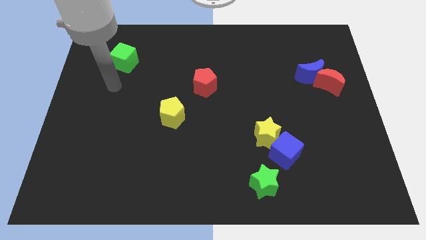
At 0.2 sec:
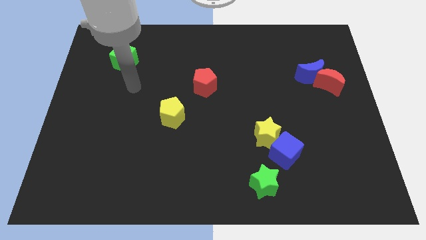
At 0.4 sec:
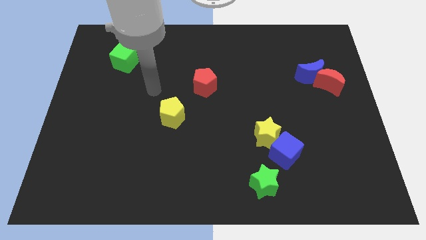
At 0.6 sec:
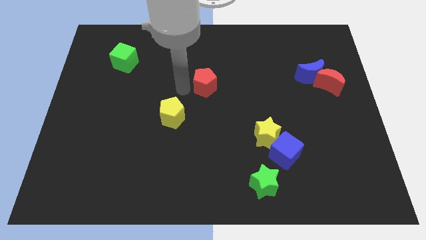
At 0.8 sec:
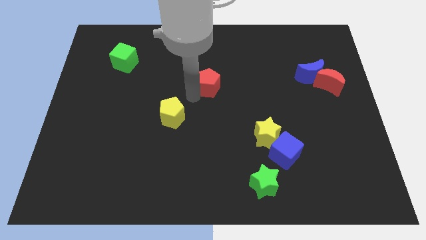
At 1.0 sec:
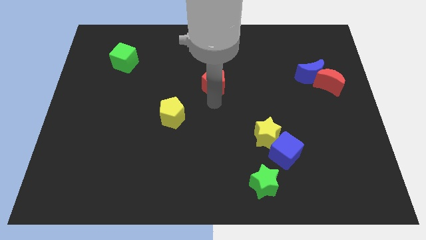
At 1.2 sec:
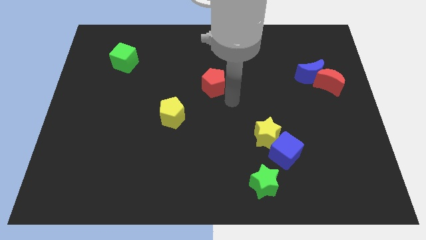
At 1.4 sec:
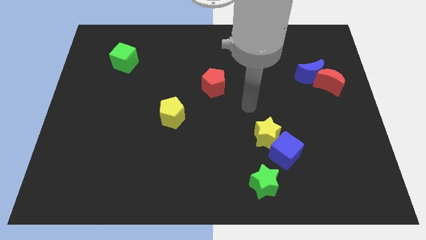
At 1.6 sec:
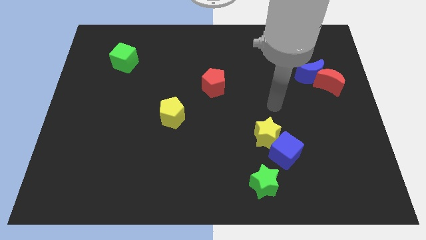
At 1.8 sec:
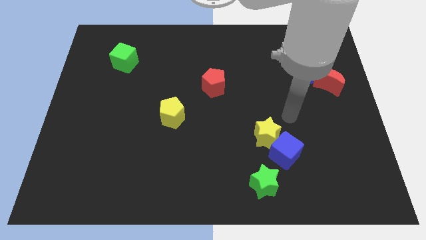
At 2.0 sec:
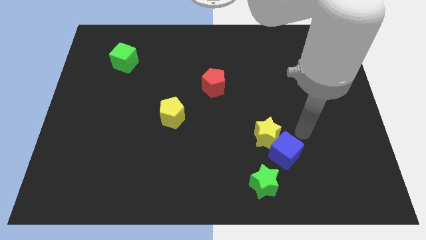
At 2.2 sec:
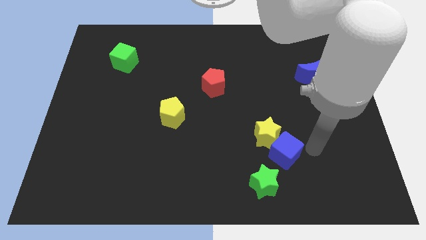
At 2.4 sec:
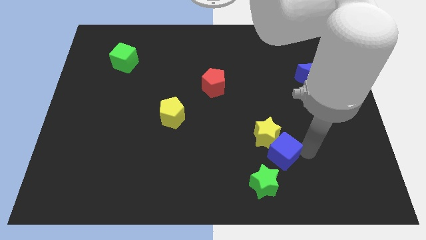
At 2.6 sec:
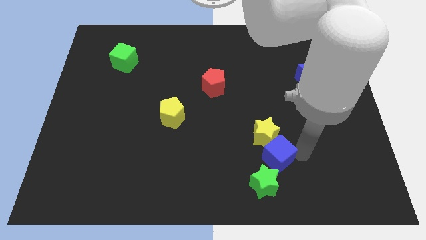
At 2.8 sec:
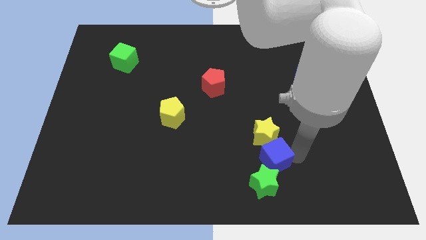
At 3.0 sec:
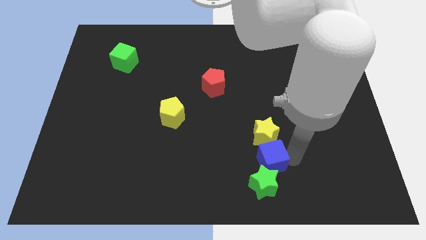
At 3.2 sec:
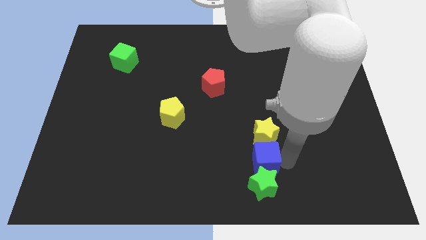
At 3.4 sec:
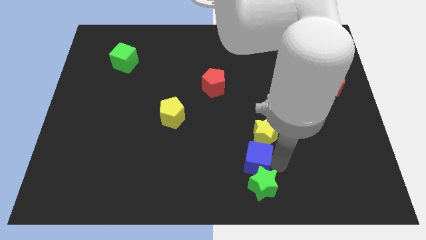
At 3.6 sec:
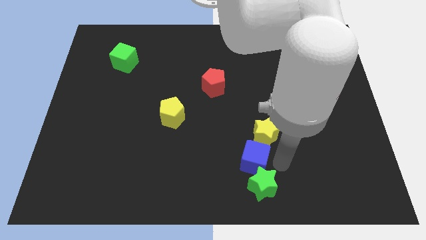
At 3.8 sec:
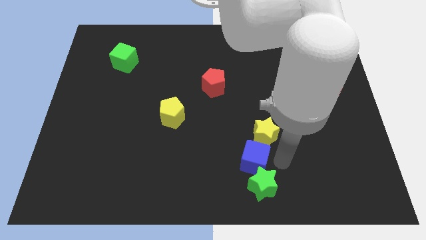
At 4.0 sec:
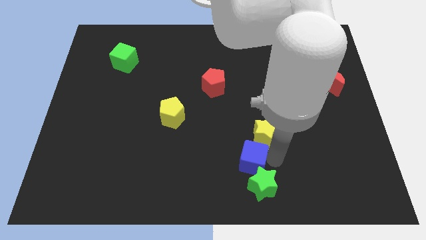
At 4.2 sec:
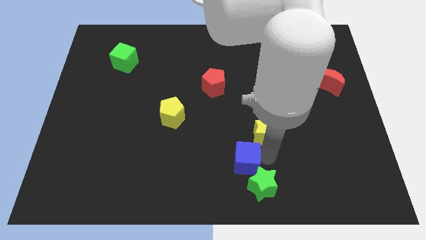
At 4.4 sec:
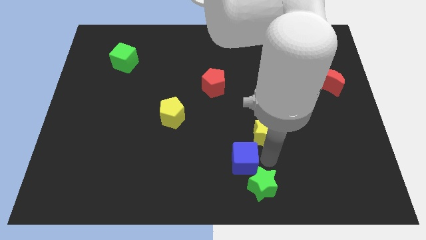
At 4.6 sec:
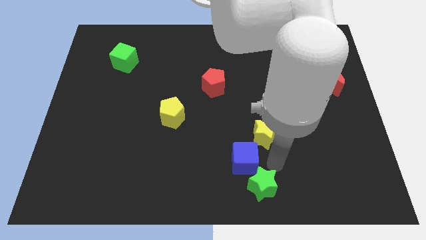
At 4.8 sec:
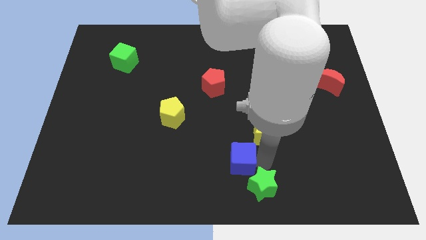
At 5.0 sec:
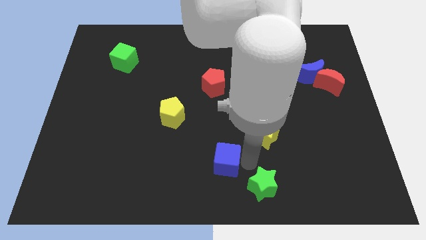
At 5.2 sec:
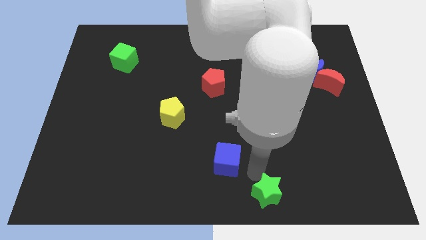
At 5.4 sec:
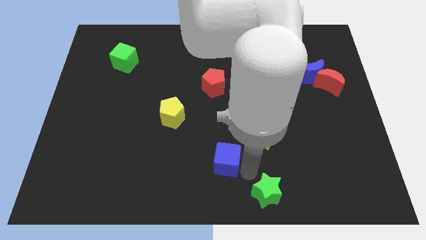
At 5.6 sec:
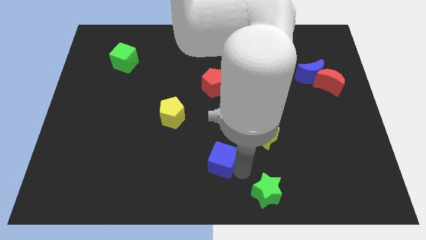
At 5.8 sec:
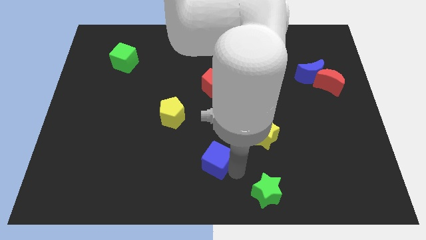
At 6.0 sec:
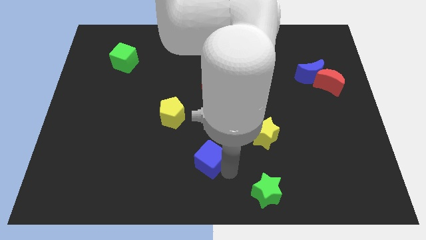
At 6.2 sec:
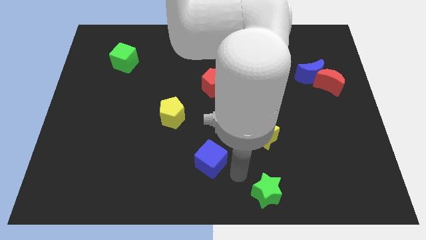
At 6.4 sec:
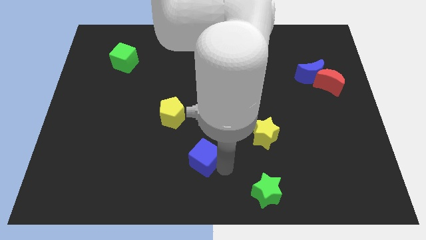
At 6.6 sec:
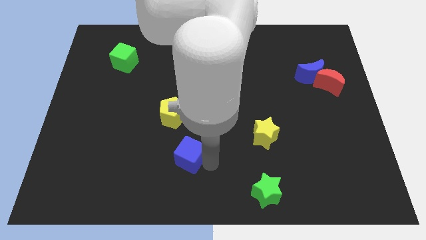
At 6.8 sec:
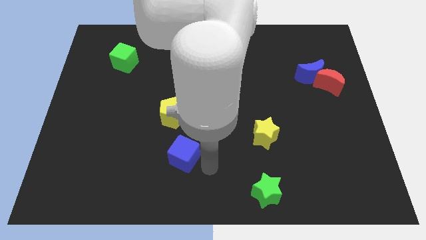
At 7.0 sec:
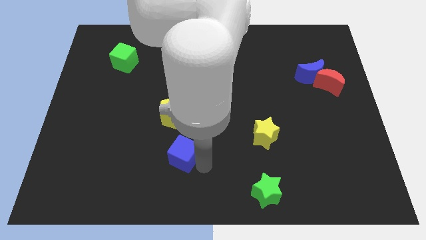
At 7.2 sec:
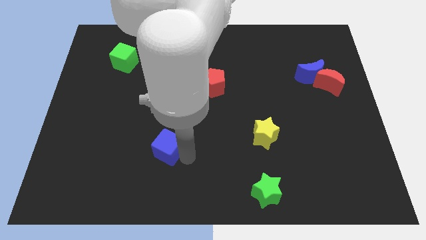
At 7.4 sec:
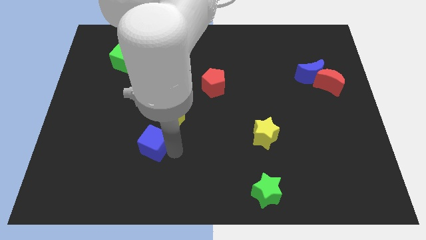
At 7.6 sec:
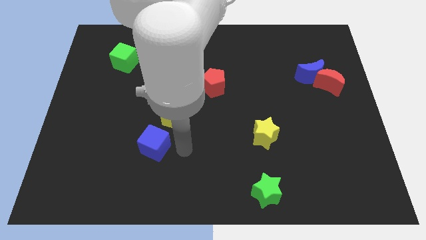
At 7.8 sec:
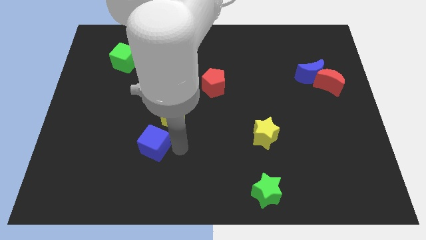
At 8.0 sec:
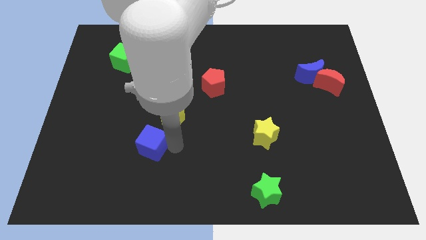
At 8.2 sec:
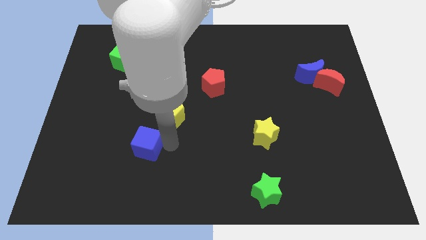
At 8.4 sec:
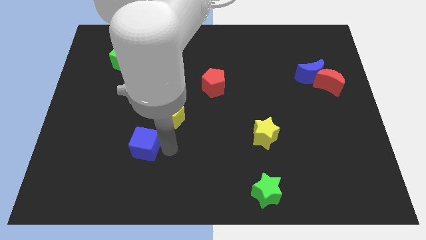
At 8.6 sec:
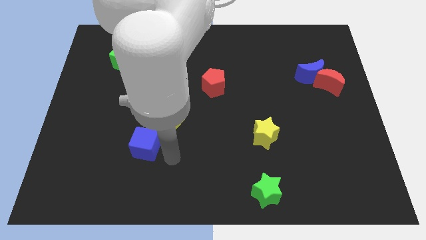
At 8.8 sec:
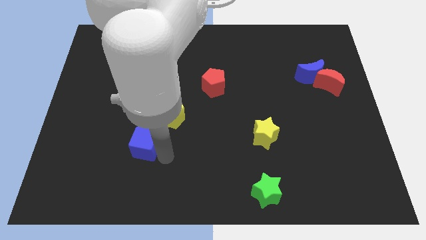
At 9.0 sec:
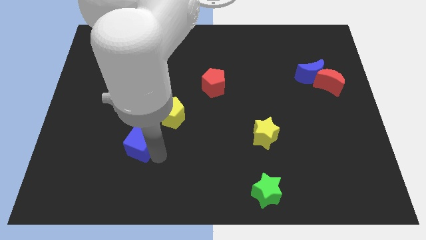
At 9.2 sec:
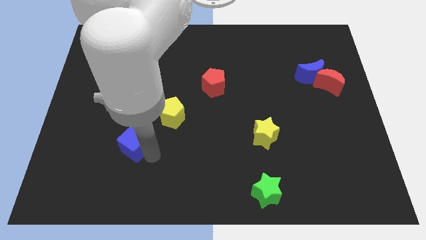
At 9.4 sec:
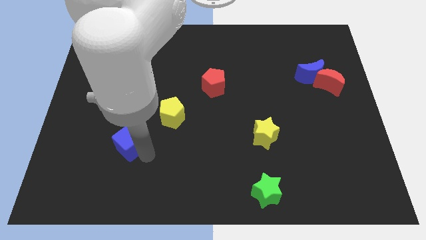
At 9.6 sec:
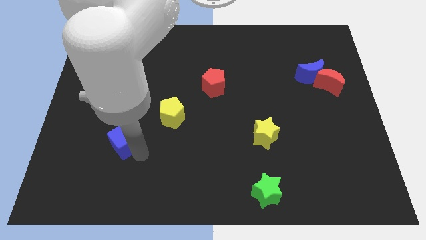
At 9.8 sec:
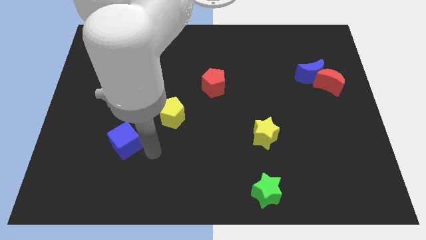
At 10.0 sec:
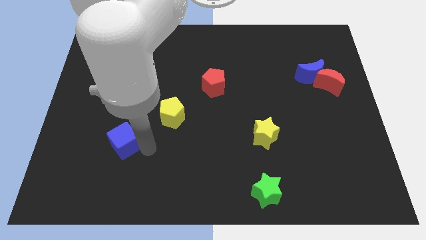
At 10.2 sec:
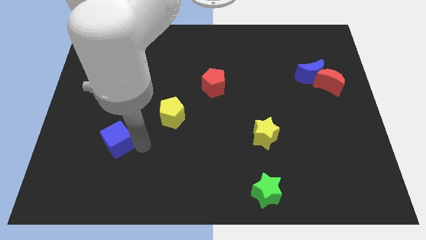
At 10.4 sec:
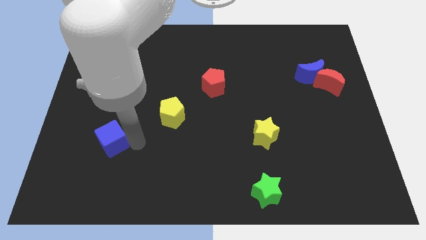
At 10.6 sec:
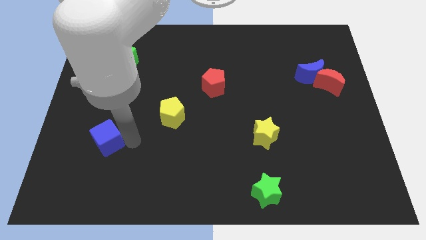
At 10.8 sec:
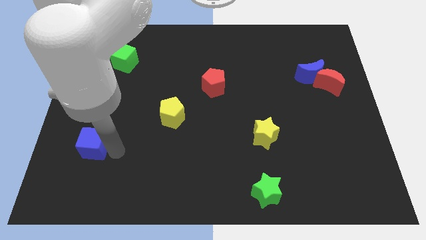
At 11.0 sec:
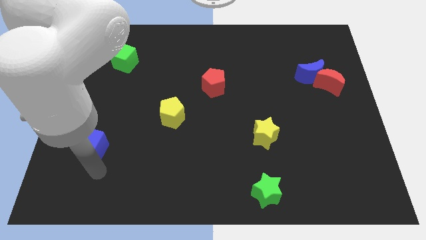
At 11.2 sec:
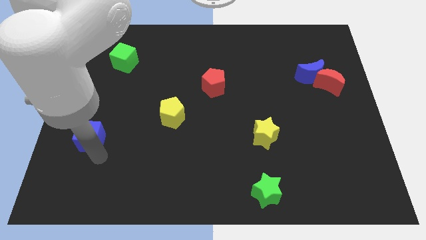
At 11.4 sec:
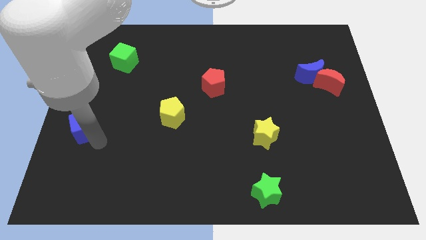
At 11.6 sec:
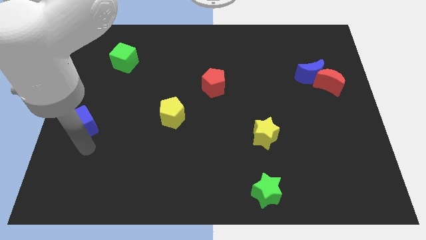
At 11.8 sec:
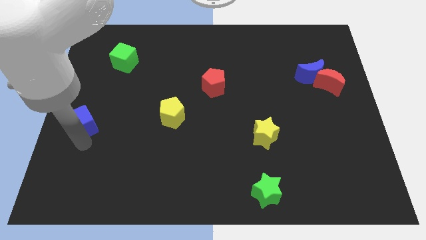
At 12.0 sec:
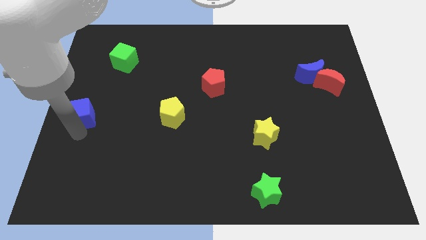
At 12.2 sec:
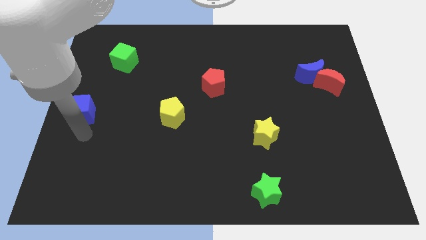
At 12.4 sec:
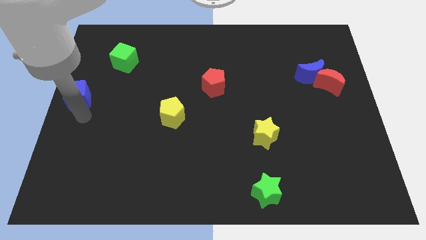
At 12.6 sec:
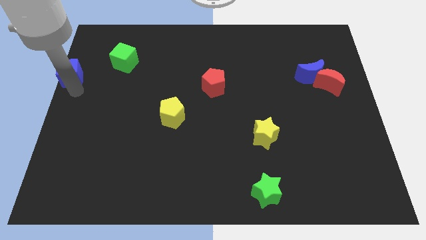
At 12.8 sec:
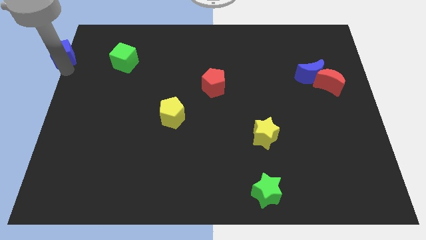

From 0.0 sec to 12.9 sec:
move the blue cube to the top left
